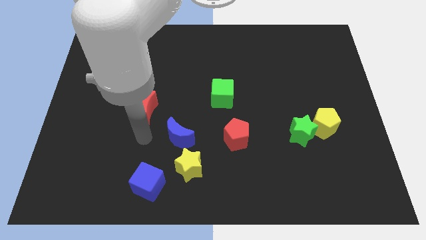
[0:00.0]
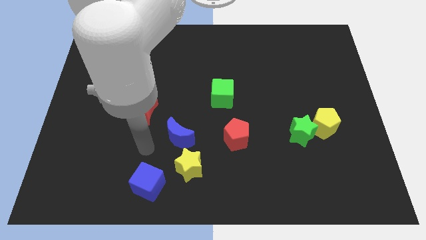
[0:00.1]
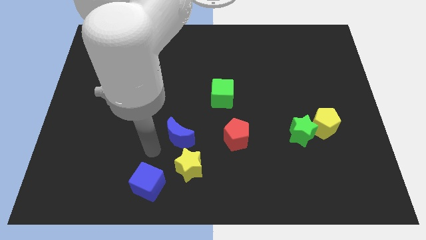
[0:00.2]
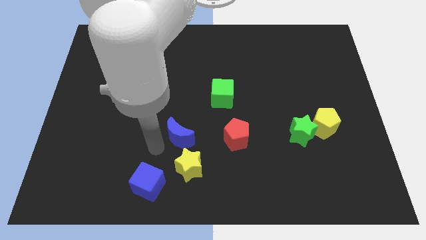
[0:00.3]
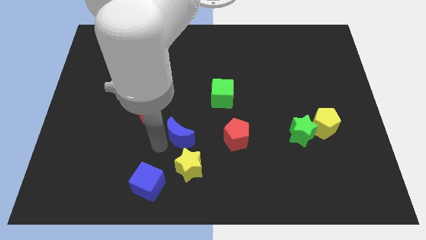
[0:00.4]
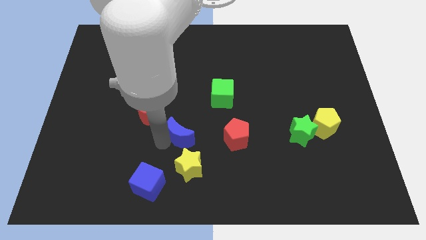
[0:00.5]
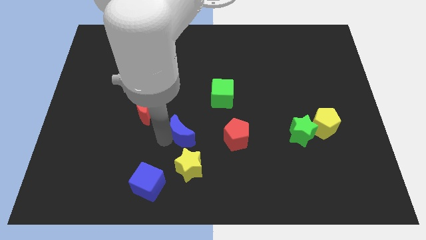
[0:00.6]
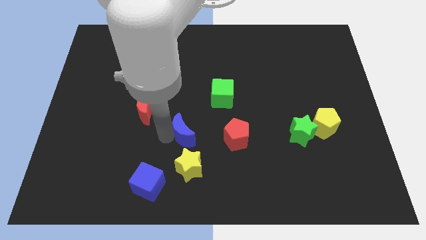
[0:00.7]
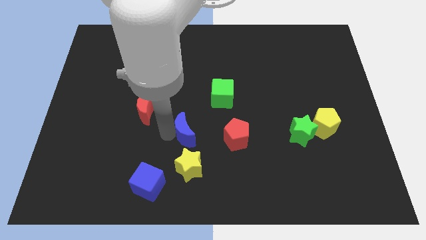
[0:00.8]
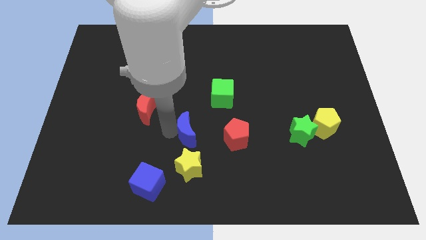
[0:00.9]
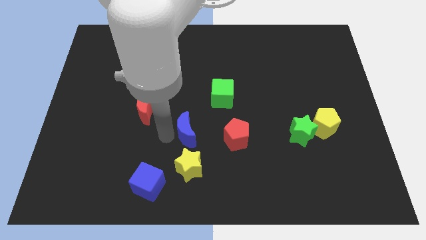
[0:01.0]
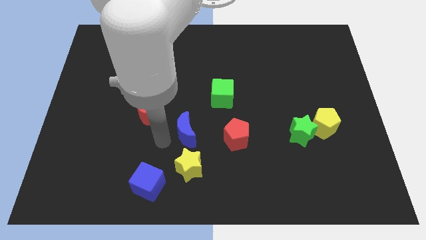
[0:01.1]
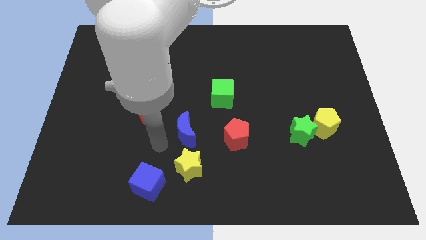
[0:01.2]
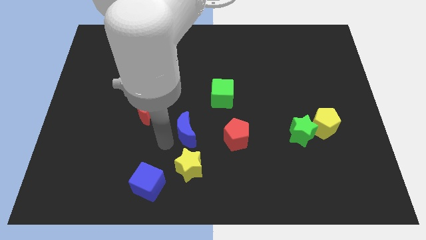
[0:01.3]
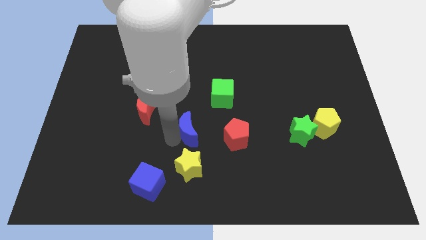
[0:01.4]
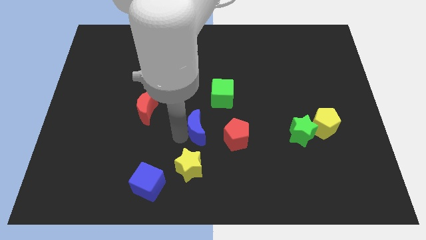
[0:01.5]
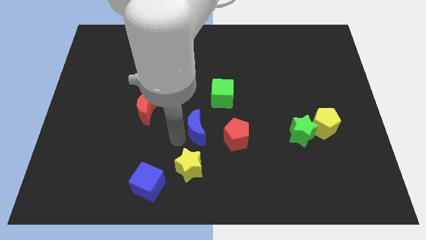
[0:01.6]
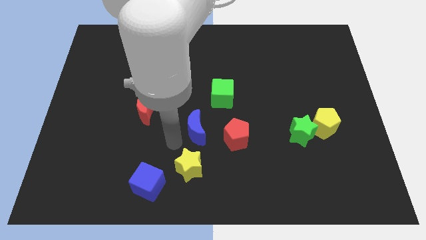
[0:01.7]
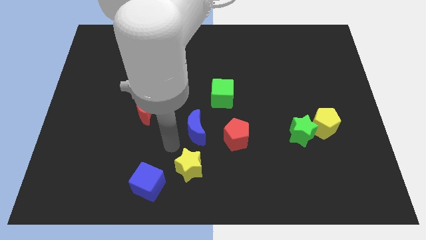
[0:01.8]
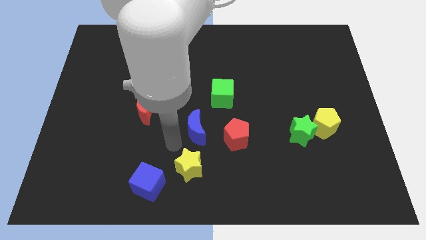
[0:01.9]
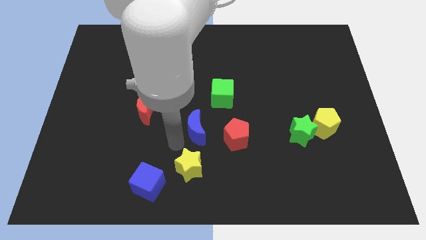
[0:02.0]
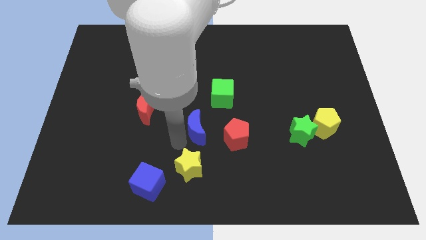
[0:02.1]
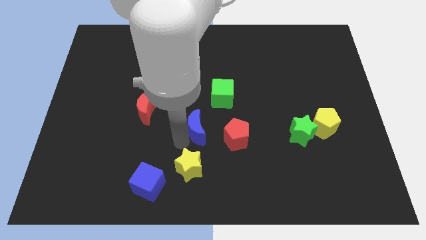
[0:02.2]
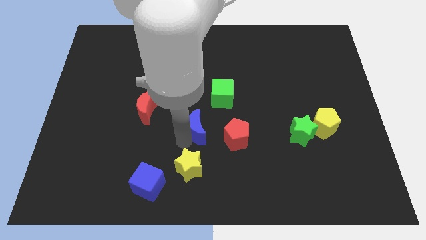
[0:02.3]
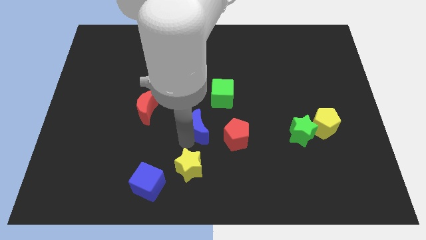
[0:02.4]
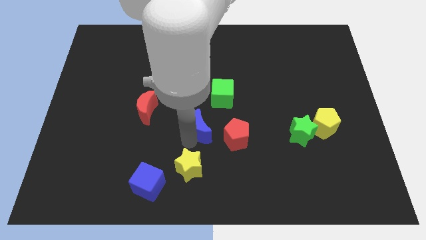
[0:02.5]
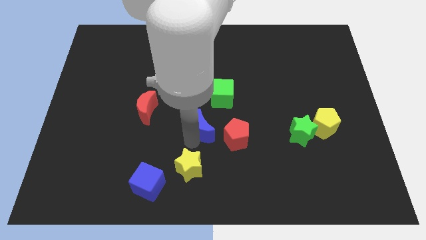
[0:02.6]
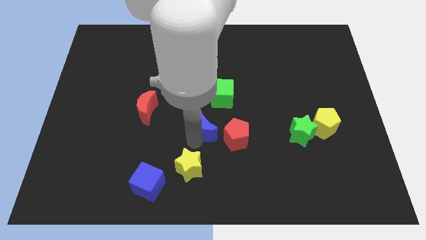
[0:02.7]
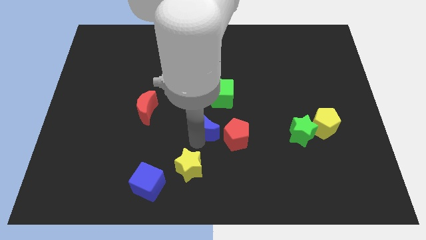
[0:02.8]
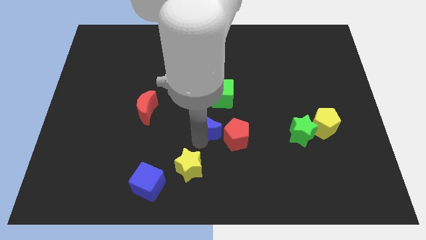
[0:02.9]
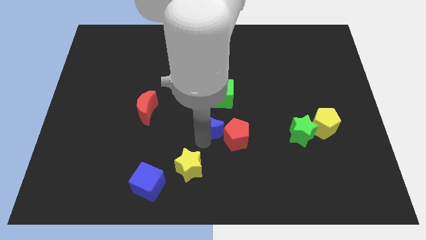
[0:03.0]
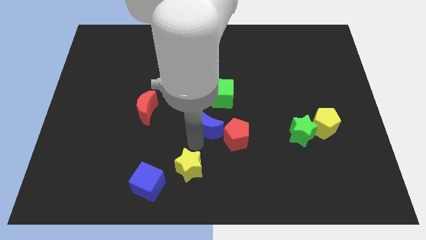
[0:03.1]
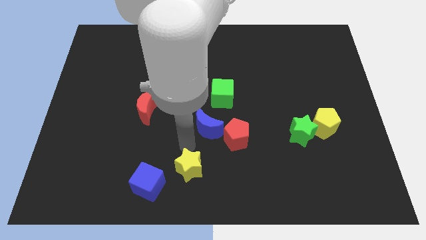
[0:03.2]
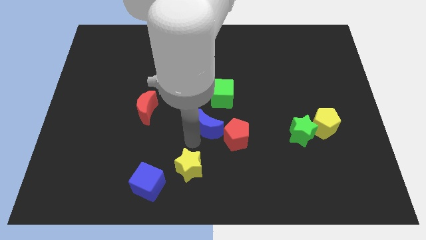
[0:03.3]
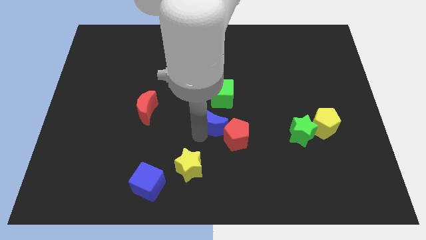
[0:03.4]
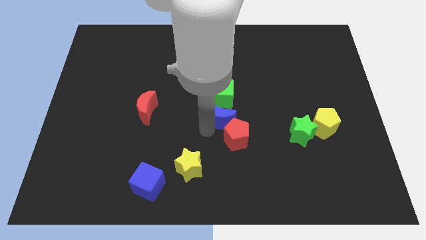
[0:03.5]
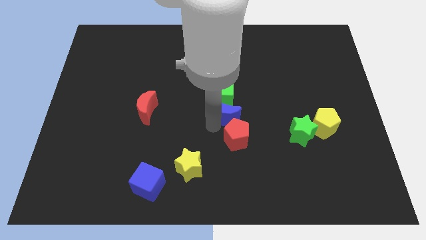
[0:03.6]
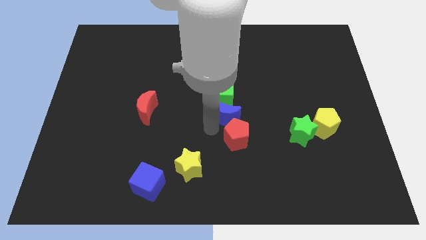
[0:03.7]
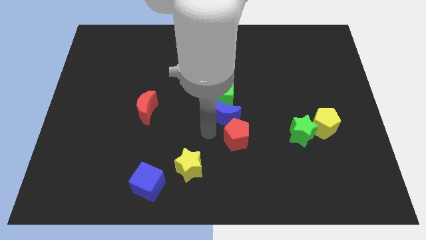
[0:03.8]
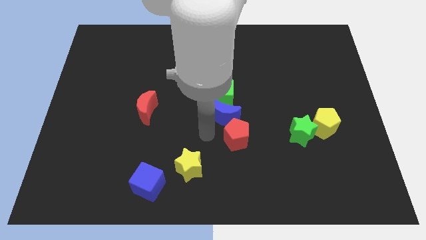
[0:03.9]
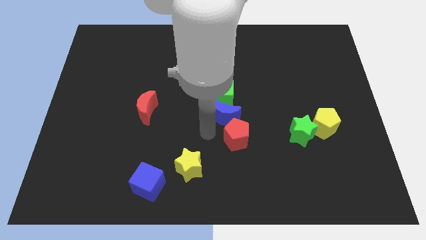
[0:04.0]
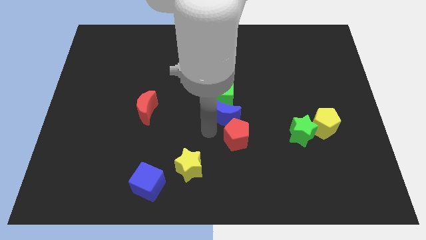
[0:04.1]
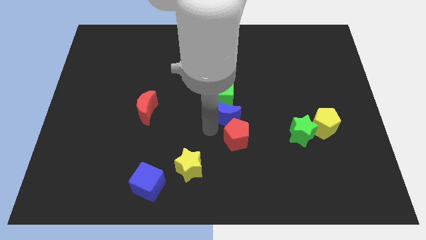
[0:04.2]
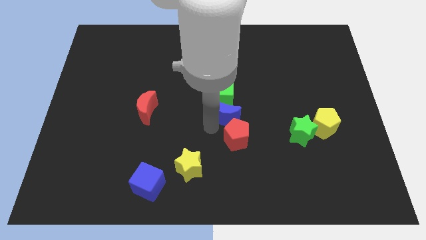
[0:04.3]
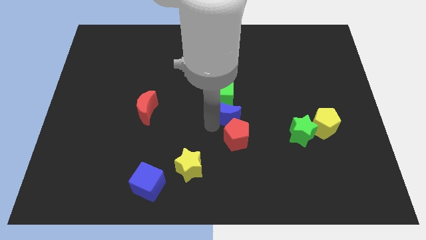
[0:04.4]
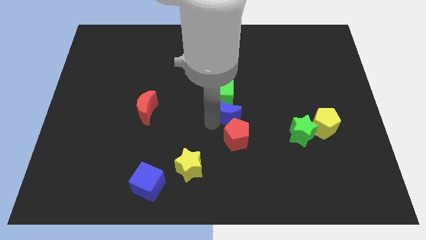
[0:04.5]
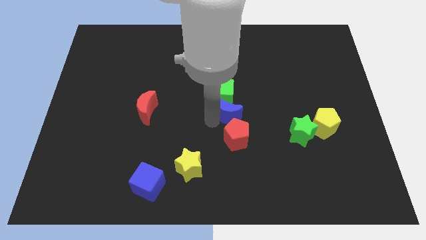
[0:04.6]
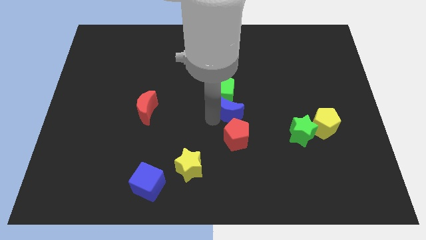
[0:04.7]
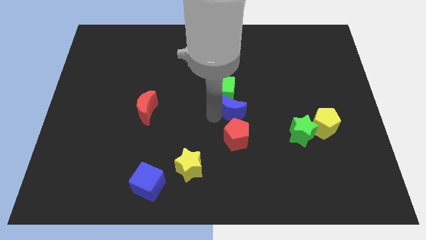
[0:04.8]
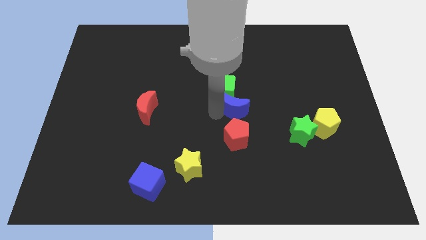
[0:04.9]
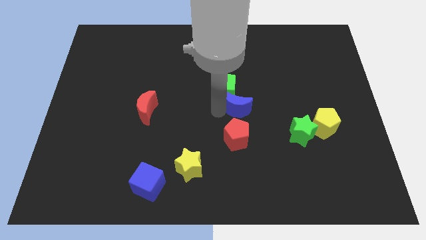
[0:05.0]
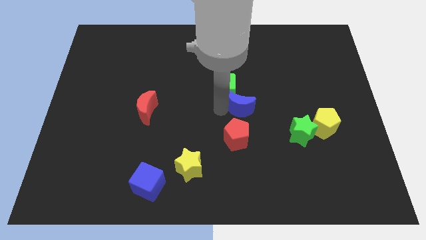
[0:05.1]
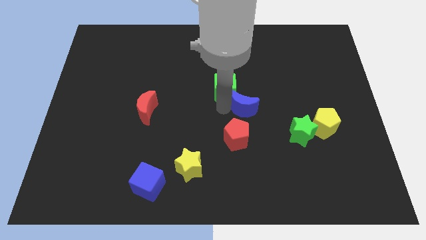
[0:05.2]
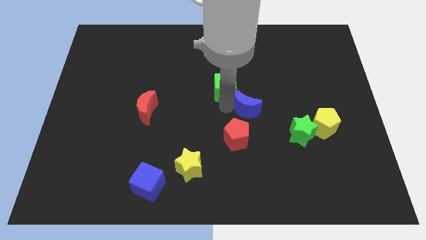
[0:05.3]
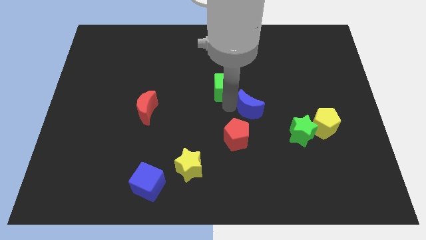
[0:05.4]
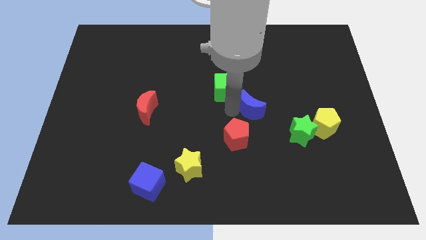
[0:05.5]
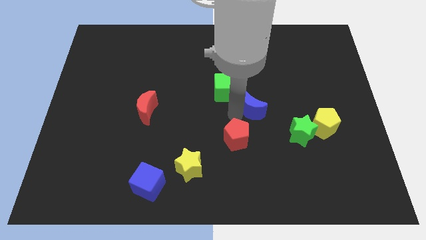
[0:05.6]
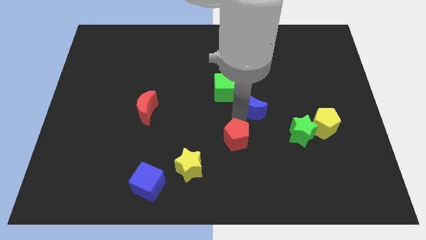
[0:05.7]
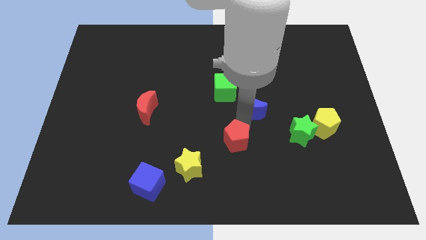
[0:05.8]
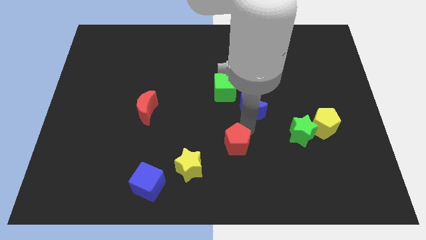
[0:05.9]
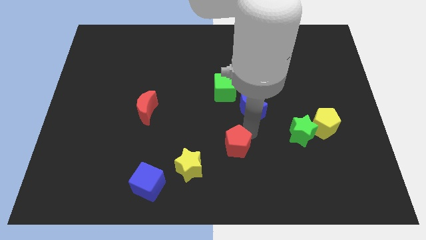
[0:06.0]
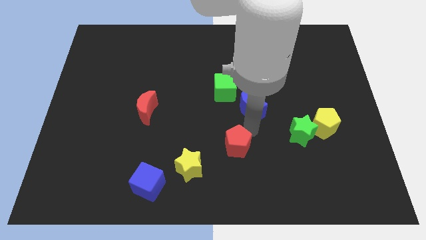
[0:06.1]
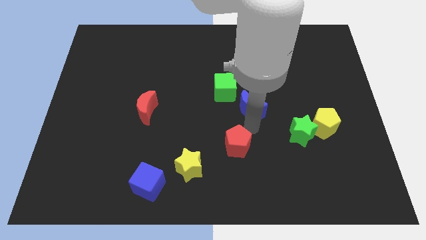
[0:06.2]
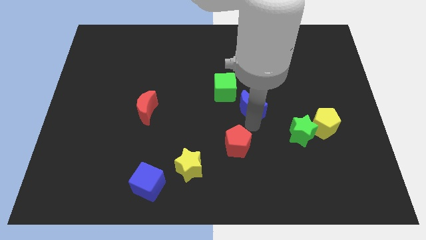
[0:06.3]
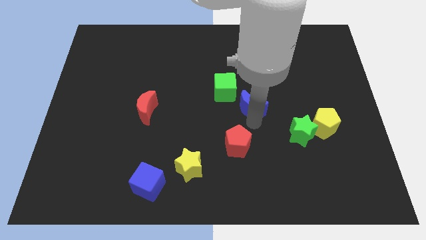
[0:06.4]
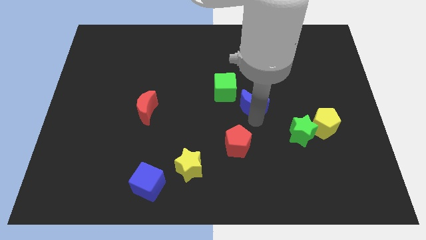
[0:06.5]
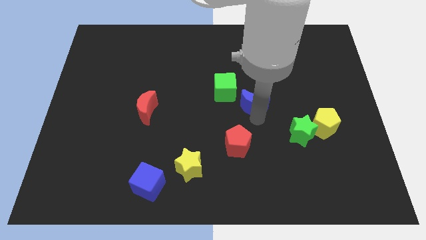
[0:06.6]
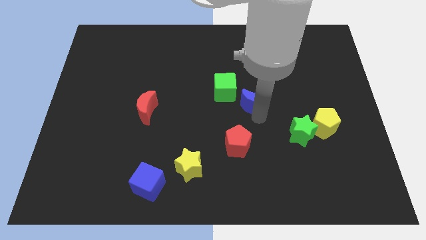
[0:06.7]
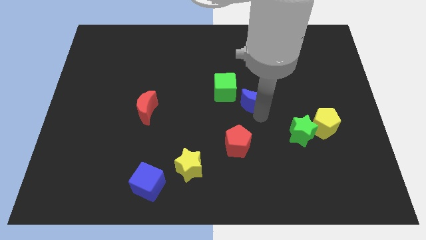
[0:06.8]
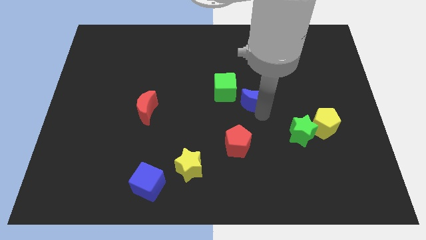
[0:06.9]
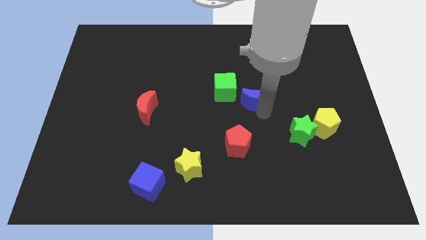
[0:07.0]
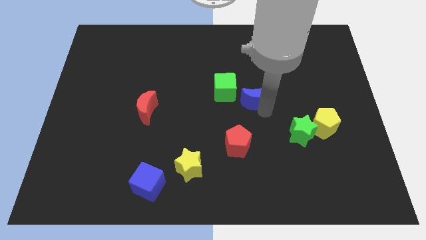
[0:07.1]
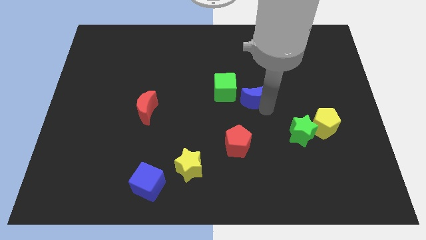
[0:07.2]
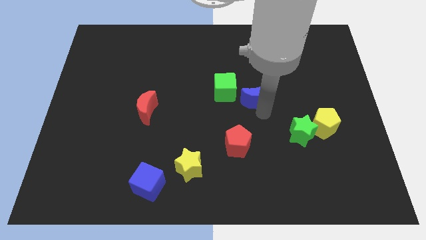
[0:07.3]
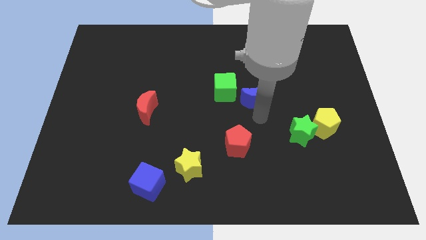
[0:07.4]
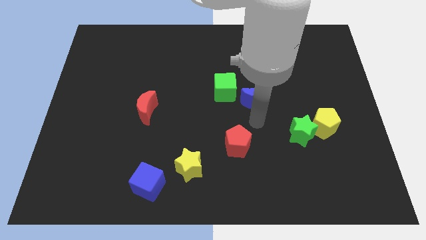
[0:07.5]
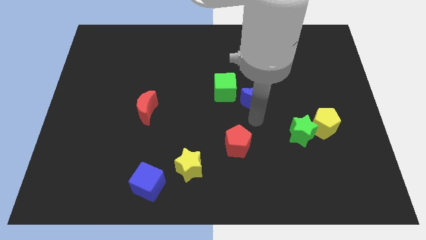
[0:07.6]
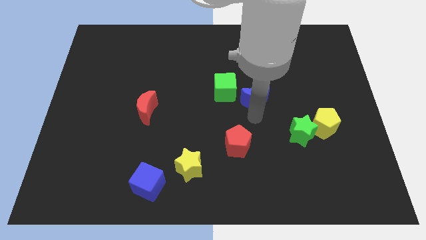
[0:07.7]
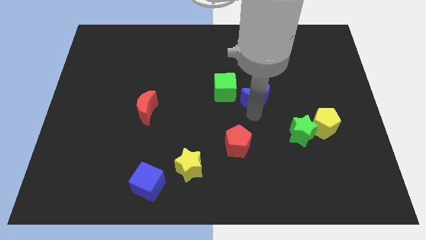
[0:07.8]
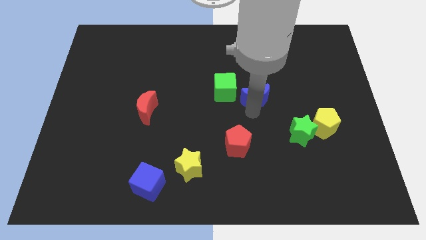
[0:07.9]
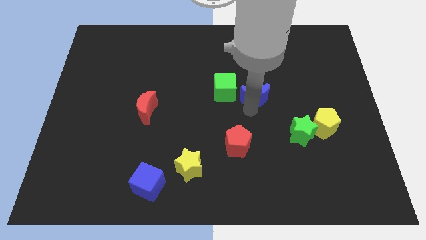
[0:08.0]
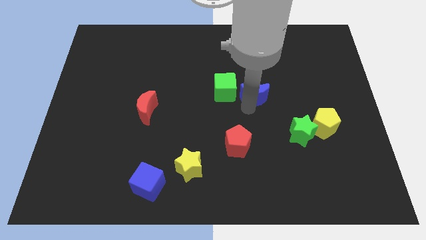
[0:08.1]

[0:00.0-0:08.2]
move the blue moon upwards and right
